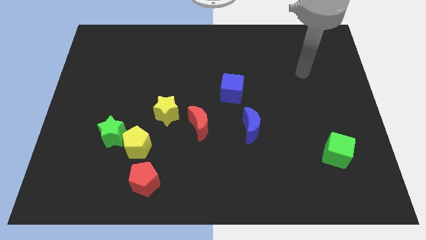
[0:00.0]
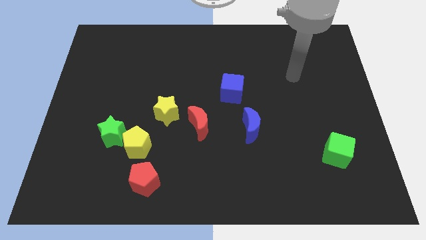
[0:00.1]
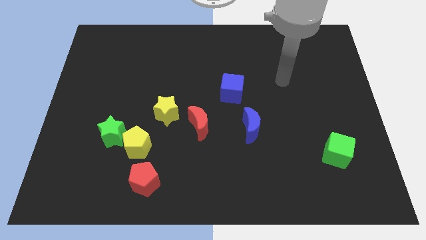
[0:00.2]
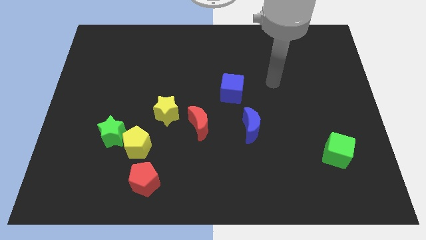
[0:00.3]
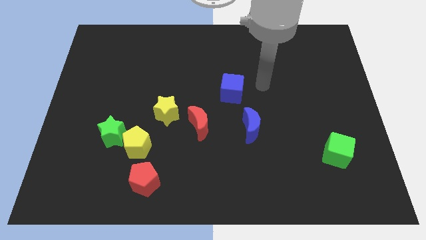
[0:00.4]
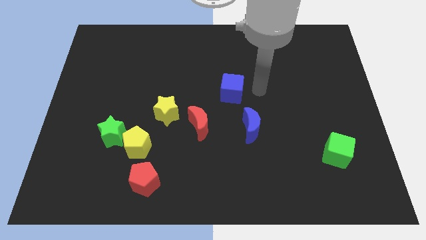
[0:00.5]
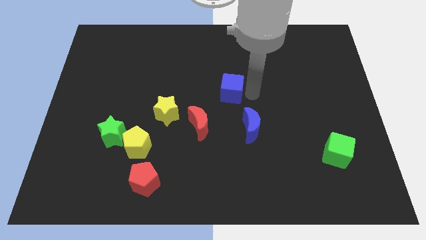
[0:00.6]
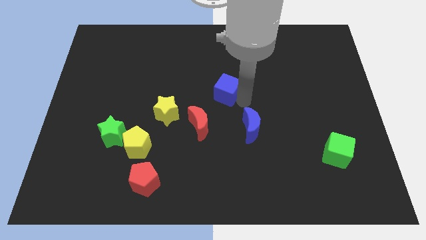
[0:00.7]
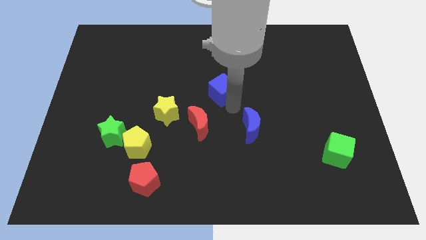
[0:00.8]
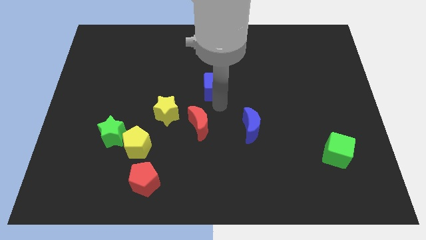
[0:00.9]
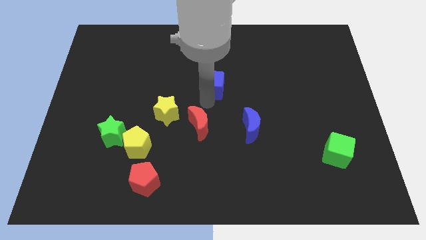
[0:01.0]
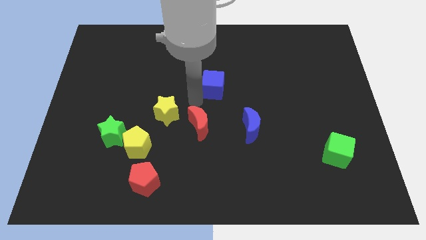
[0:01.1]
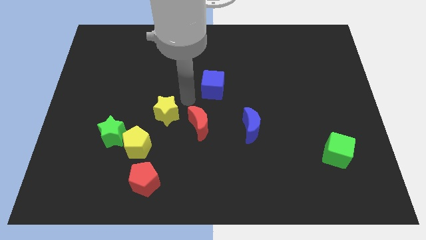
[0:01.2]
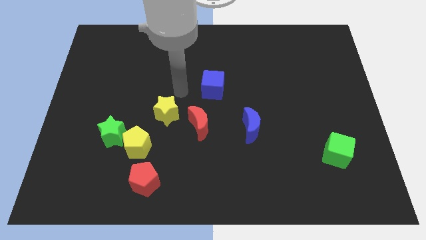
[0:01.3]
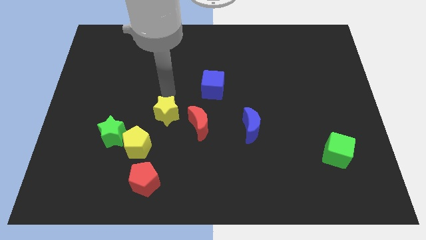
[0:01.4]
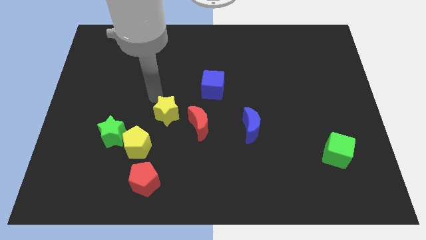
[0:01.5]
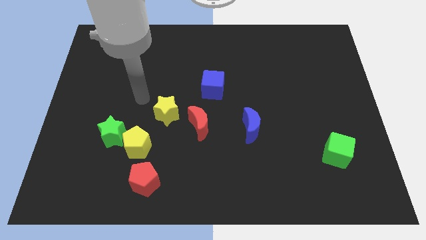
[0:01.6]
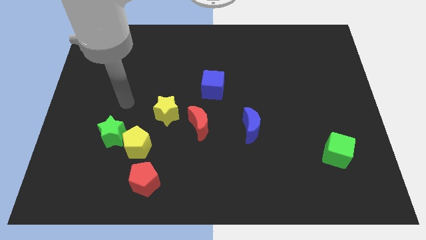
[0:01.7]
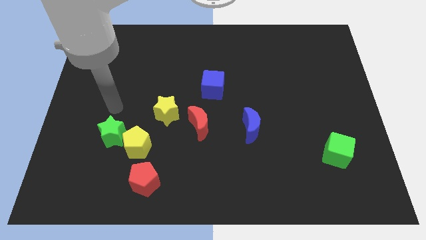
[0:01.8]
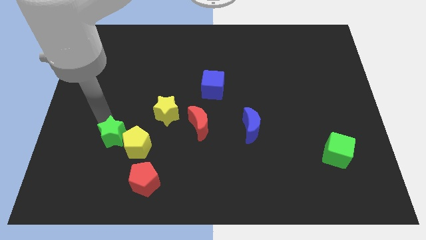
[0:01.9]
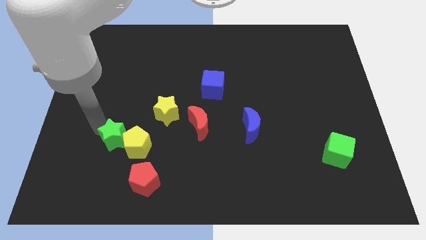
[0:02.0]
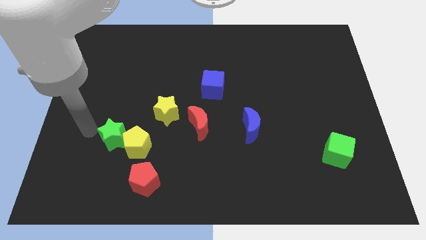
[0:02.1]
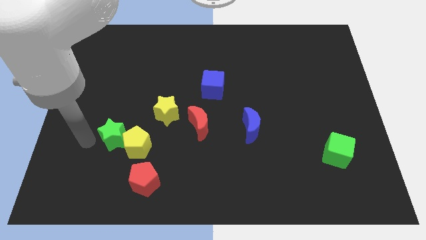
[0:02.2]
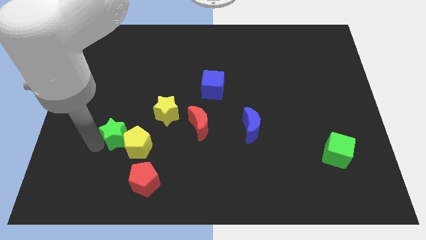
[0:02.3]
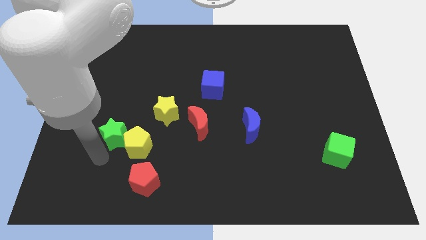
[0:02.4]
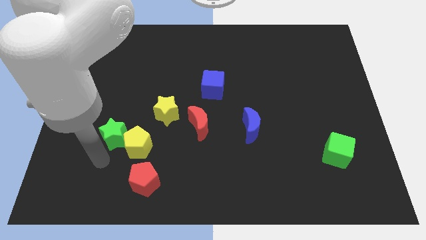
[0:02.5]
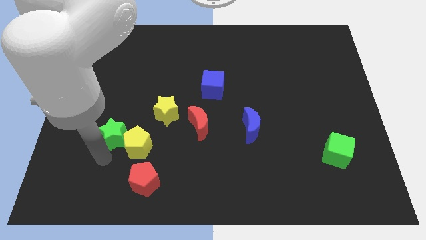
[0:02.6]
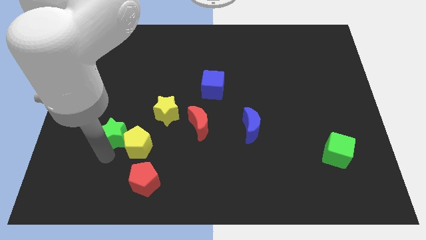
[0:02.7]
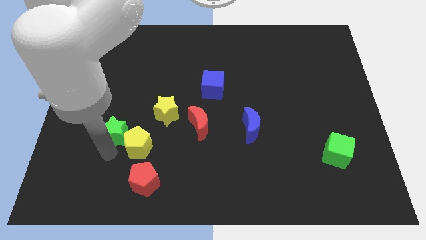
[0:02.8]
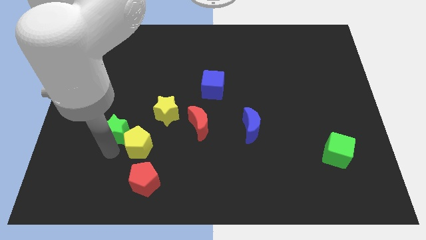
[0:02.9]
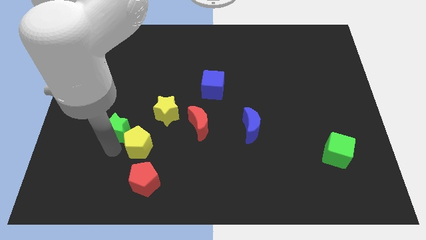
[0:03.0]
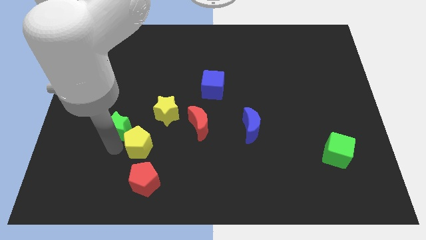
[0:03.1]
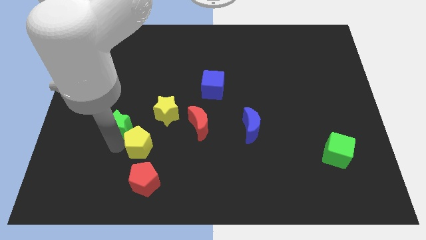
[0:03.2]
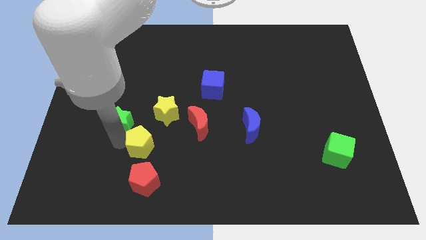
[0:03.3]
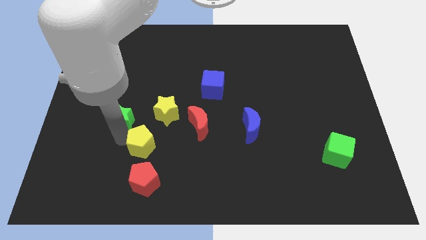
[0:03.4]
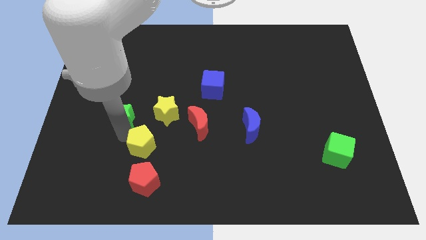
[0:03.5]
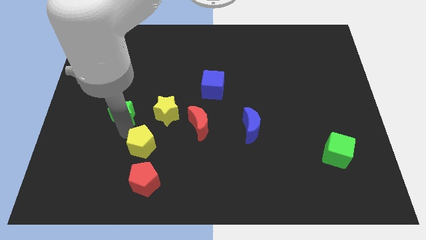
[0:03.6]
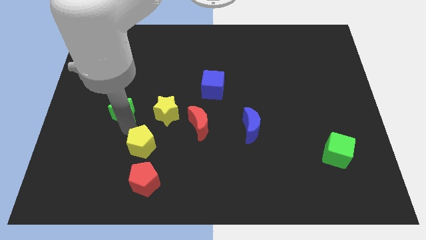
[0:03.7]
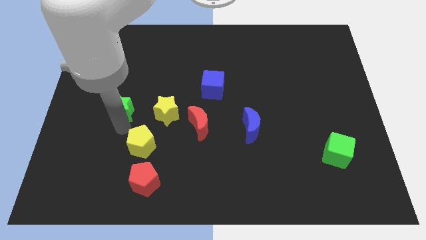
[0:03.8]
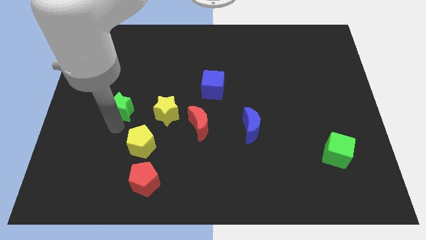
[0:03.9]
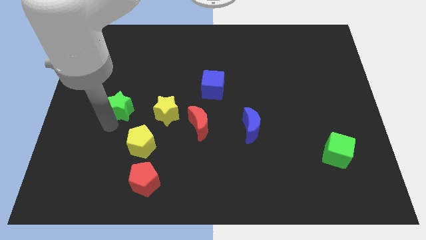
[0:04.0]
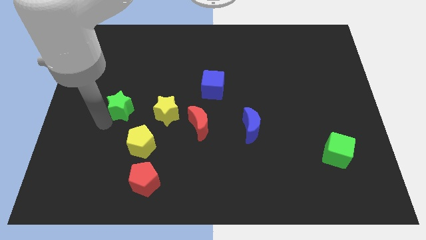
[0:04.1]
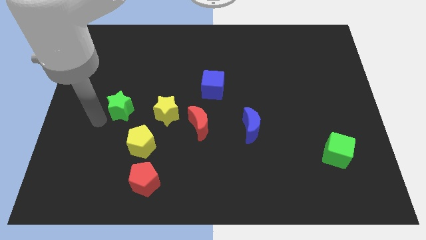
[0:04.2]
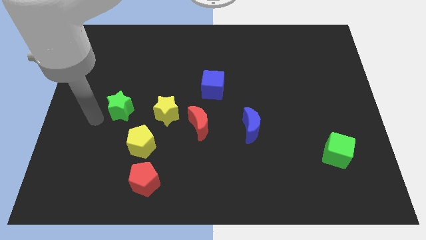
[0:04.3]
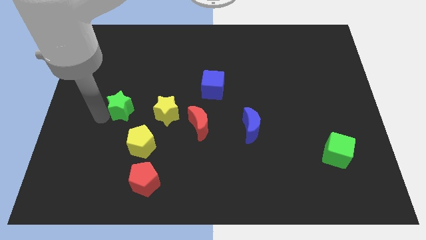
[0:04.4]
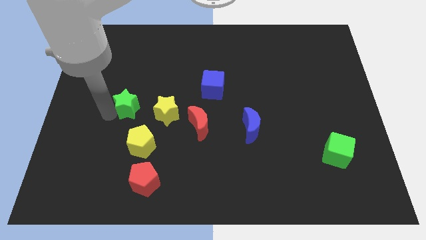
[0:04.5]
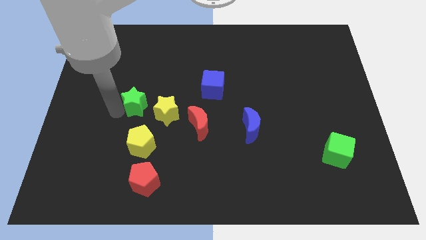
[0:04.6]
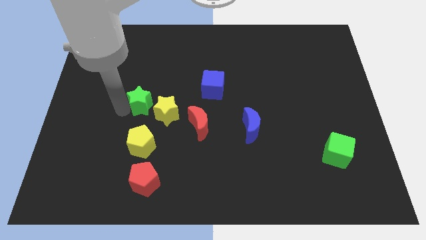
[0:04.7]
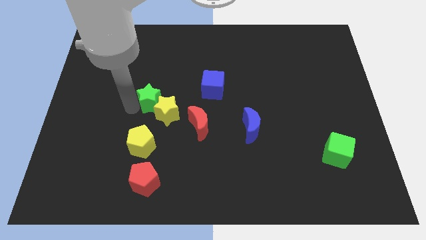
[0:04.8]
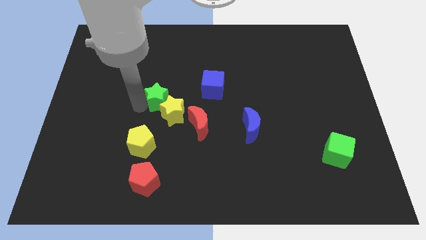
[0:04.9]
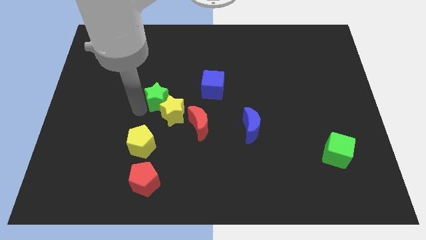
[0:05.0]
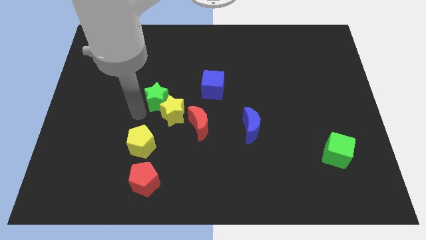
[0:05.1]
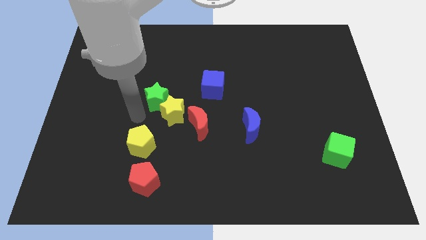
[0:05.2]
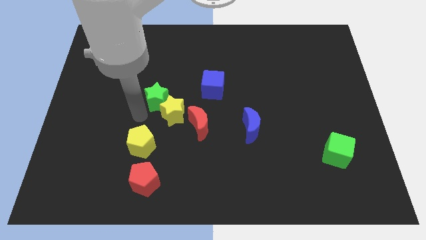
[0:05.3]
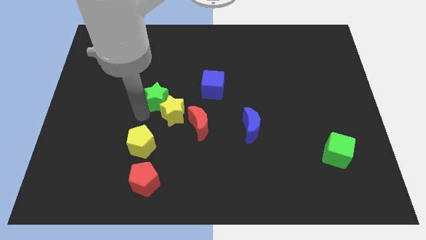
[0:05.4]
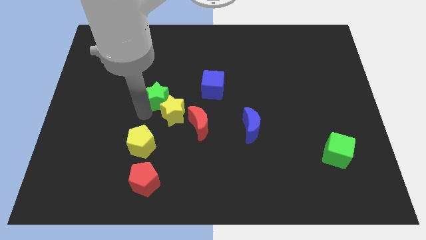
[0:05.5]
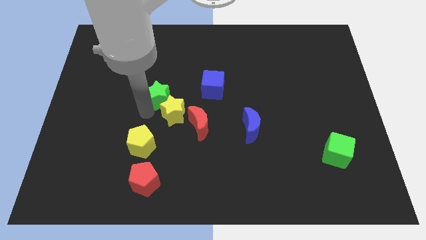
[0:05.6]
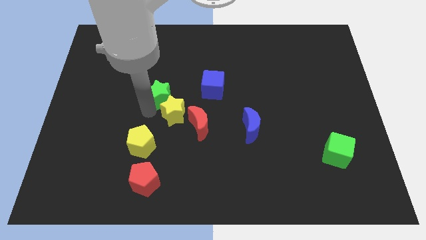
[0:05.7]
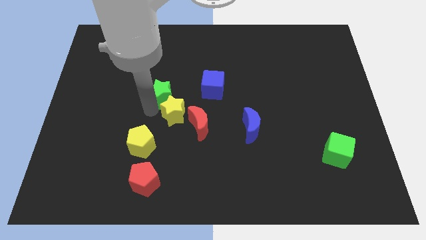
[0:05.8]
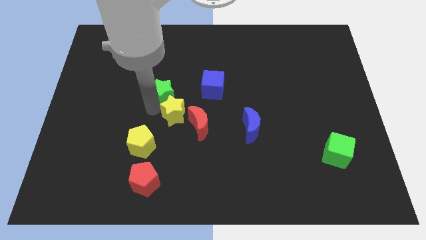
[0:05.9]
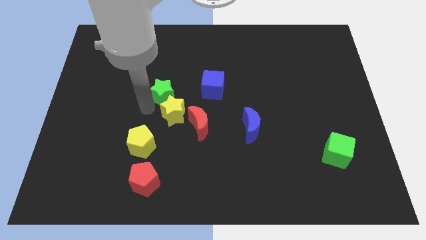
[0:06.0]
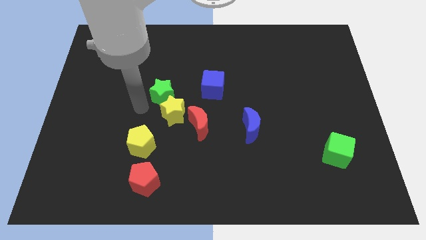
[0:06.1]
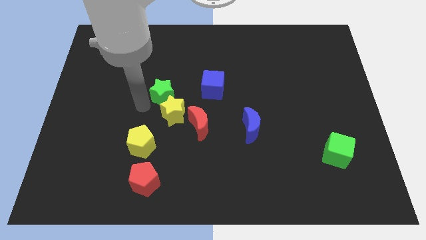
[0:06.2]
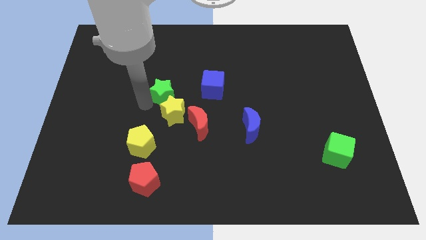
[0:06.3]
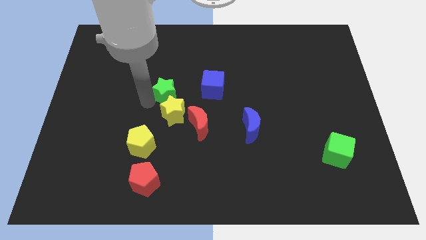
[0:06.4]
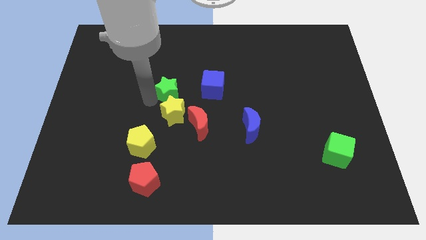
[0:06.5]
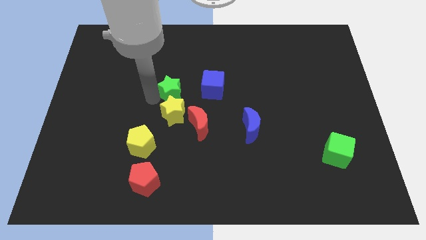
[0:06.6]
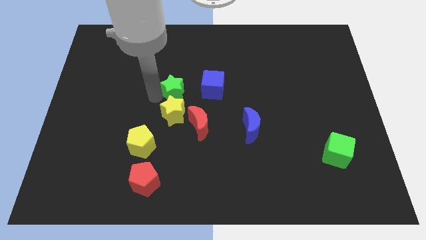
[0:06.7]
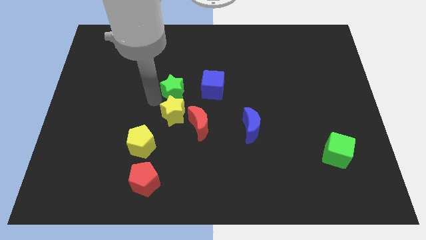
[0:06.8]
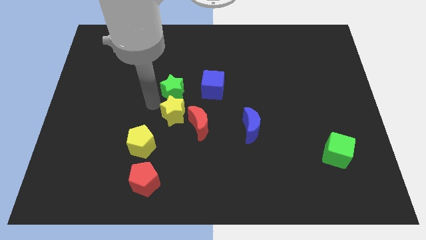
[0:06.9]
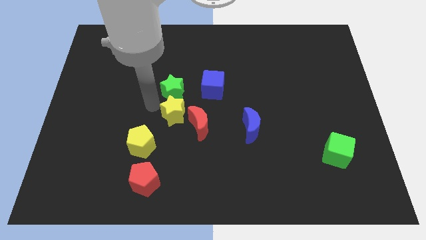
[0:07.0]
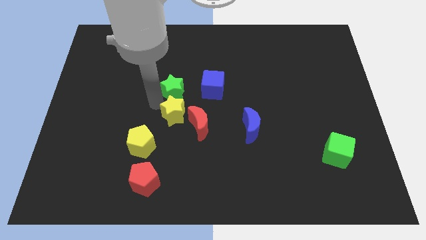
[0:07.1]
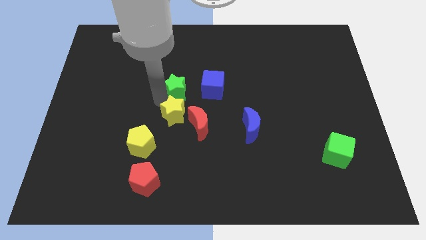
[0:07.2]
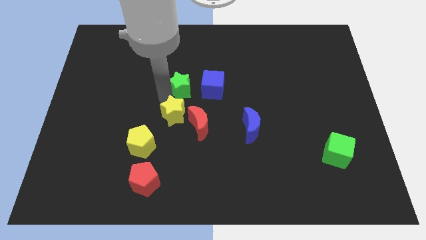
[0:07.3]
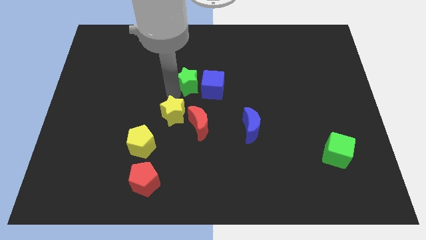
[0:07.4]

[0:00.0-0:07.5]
move the green star diagonally upwards and to the right

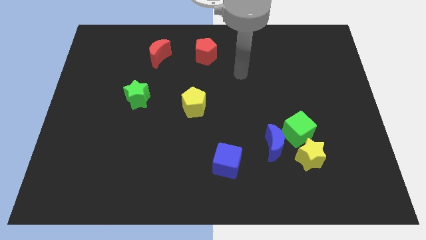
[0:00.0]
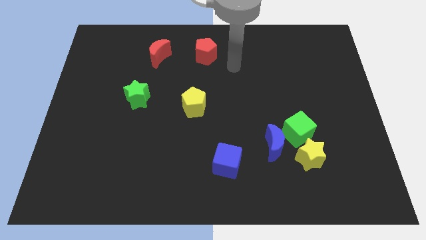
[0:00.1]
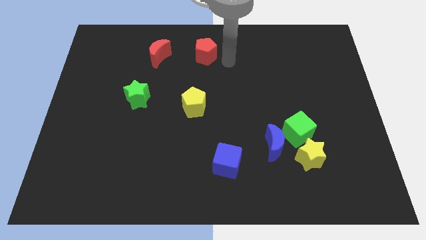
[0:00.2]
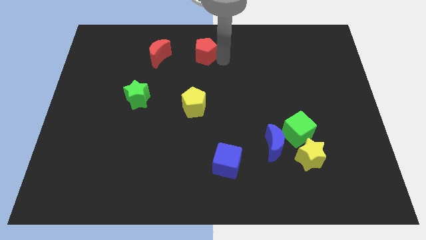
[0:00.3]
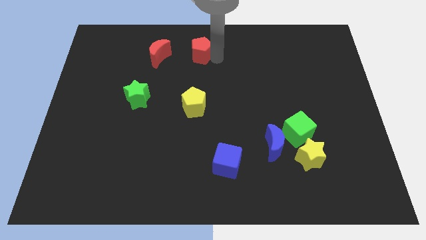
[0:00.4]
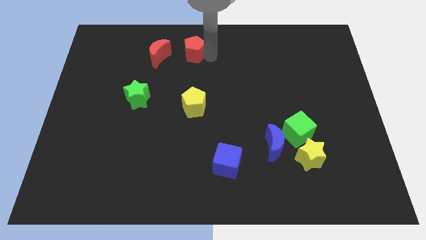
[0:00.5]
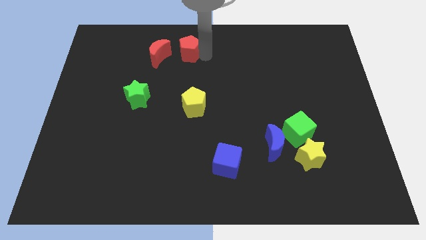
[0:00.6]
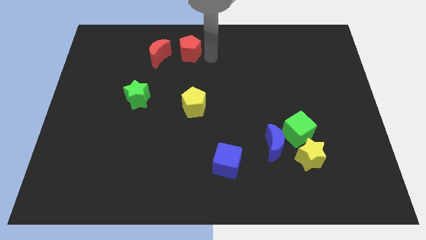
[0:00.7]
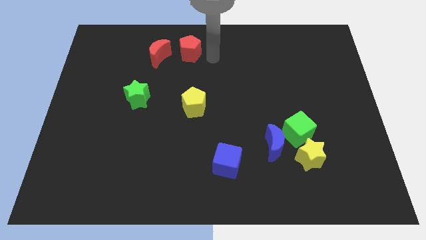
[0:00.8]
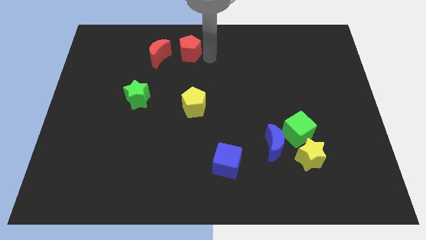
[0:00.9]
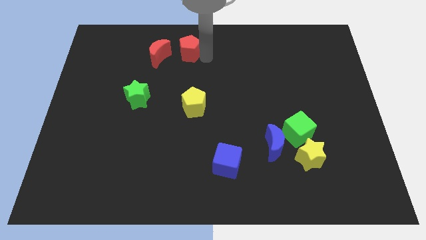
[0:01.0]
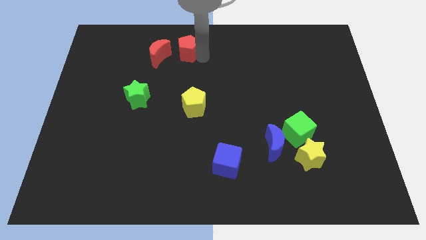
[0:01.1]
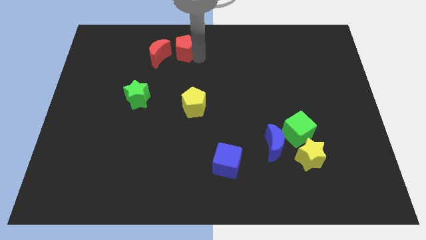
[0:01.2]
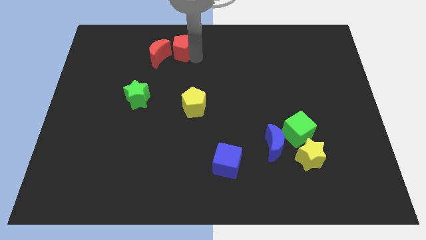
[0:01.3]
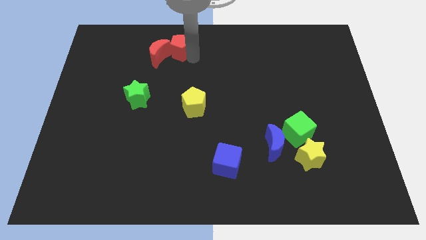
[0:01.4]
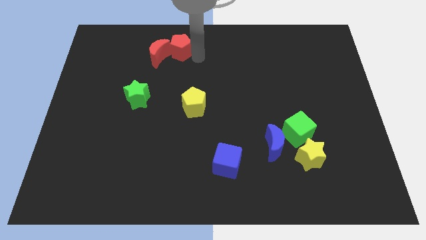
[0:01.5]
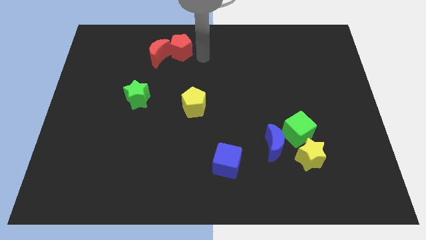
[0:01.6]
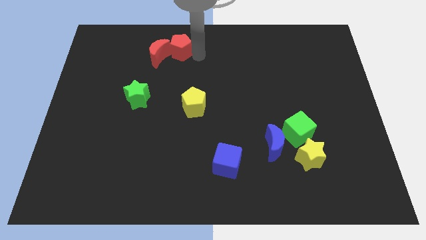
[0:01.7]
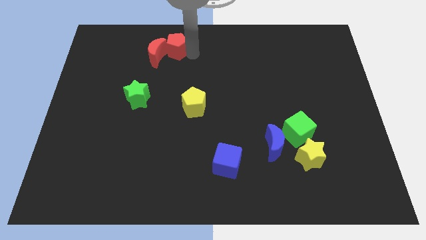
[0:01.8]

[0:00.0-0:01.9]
slightly slide the red pentagon to the left
